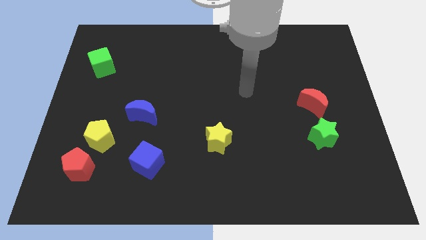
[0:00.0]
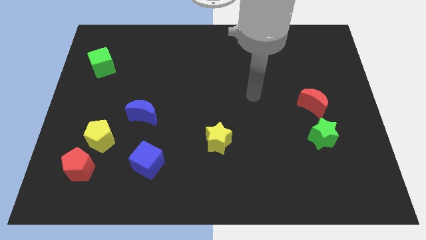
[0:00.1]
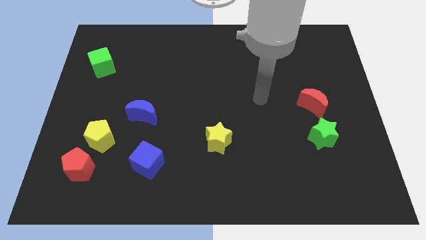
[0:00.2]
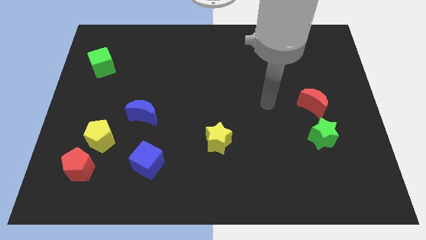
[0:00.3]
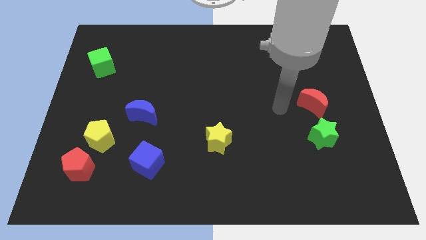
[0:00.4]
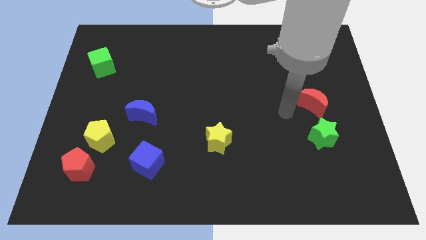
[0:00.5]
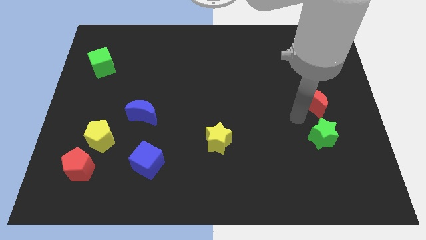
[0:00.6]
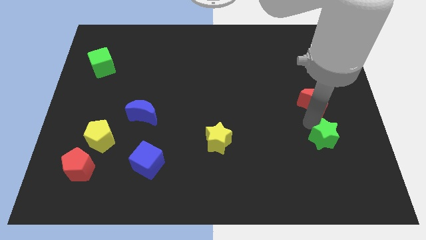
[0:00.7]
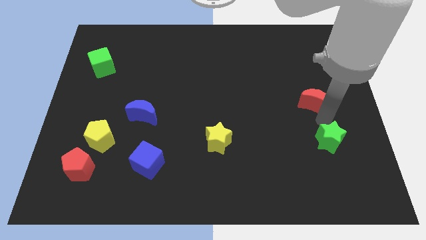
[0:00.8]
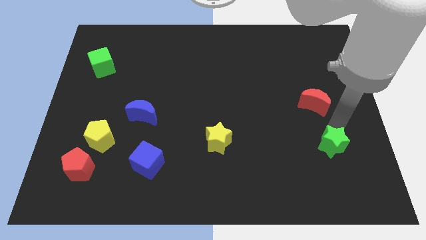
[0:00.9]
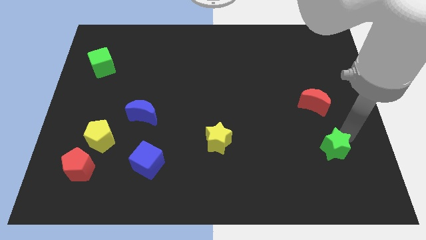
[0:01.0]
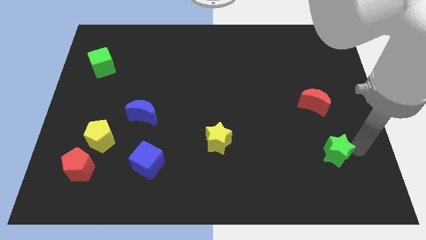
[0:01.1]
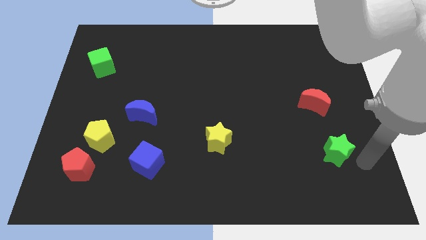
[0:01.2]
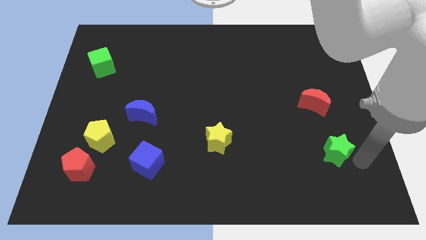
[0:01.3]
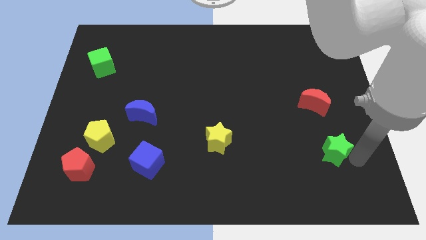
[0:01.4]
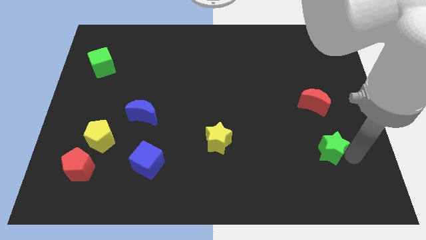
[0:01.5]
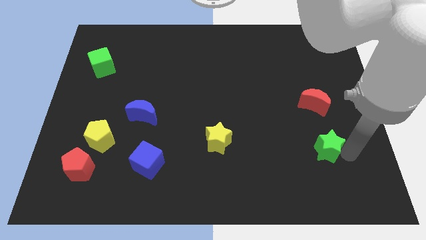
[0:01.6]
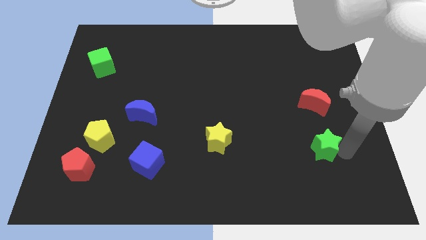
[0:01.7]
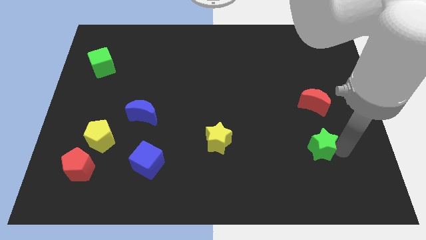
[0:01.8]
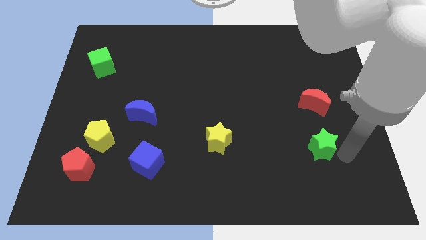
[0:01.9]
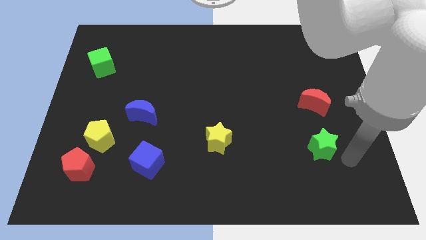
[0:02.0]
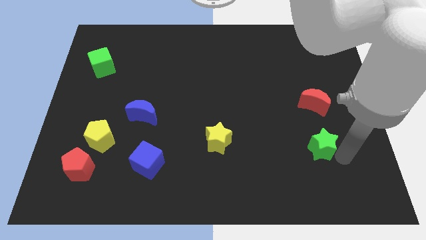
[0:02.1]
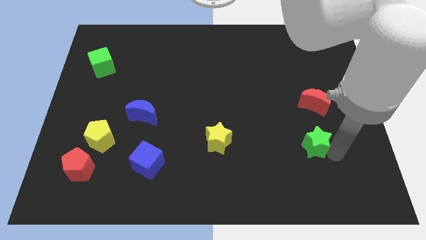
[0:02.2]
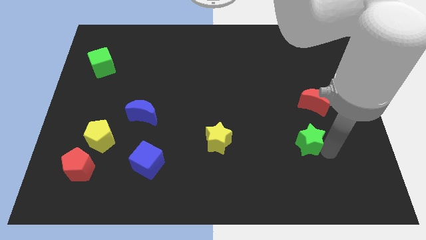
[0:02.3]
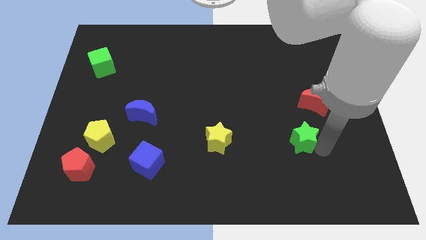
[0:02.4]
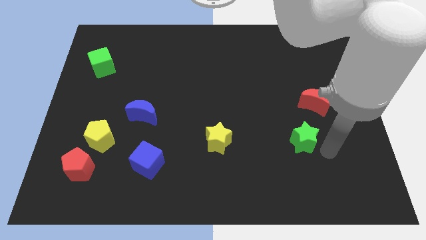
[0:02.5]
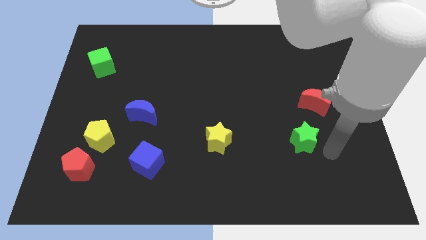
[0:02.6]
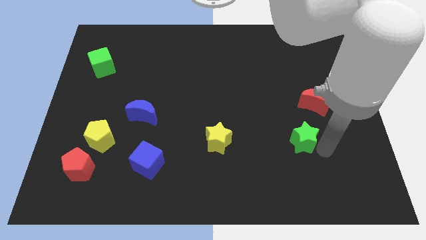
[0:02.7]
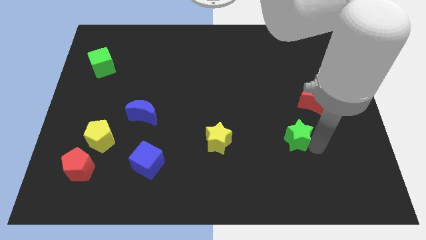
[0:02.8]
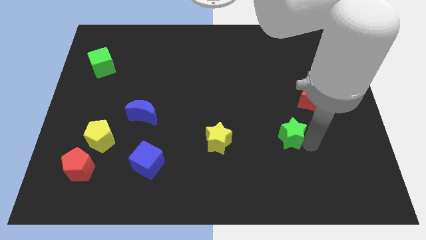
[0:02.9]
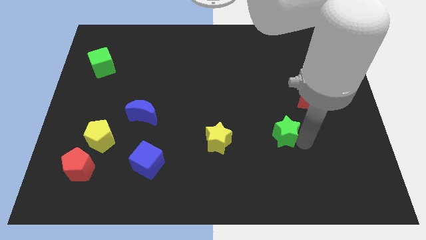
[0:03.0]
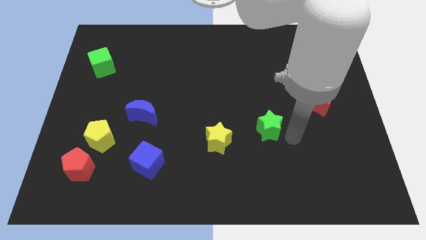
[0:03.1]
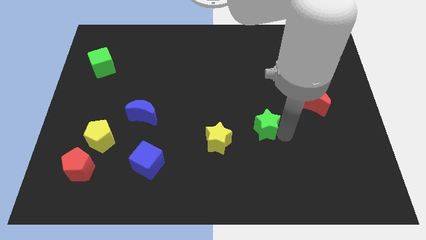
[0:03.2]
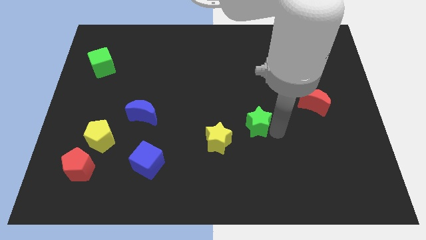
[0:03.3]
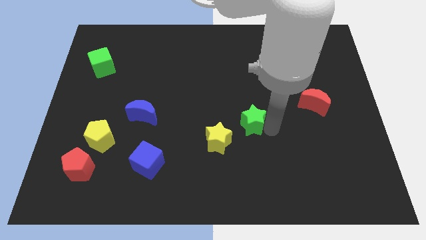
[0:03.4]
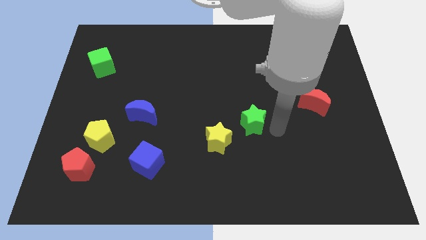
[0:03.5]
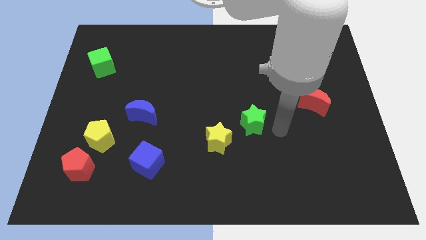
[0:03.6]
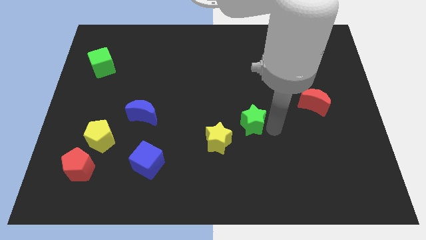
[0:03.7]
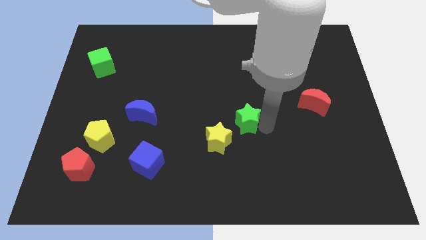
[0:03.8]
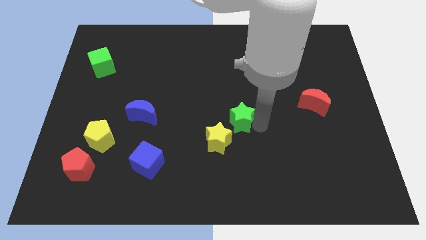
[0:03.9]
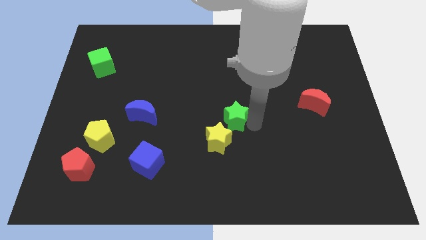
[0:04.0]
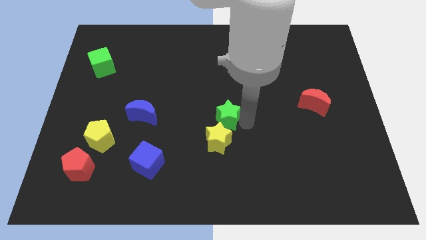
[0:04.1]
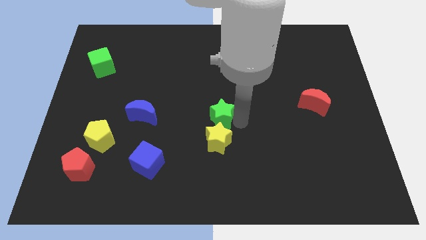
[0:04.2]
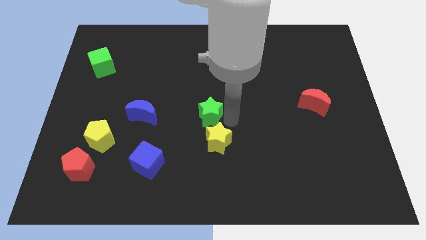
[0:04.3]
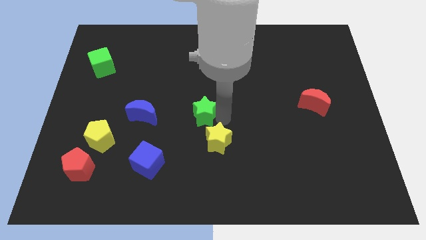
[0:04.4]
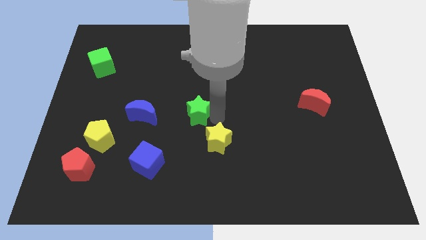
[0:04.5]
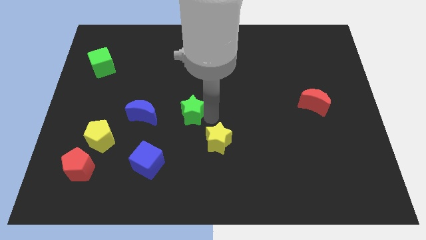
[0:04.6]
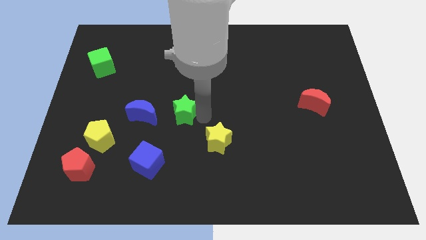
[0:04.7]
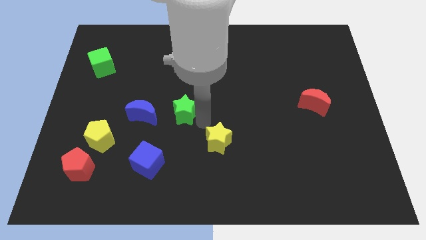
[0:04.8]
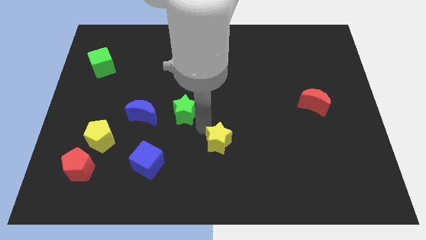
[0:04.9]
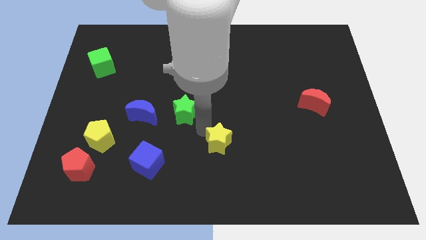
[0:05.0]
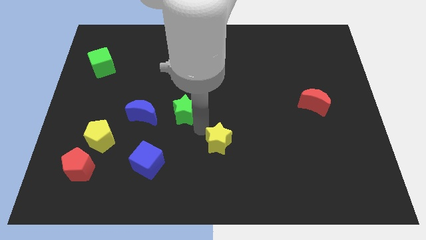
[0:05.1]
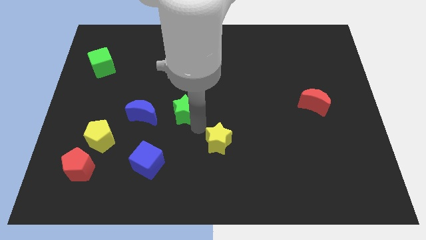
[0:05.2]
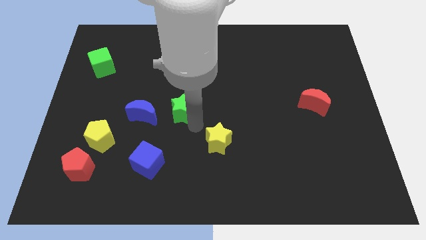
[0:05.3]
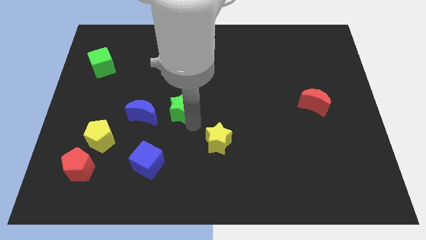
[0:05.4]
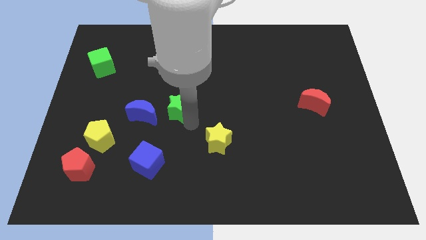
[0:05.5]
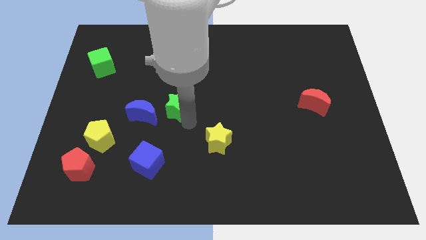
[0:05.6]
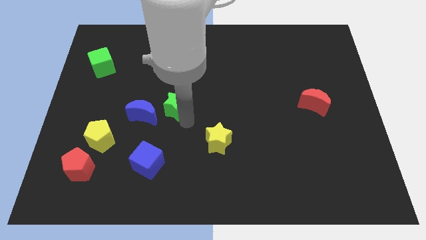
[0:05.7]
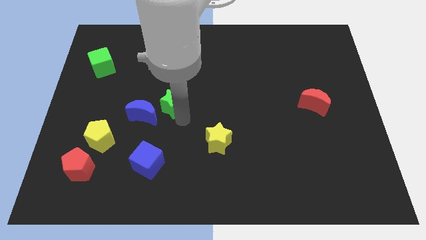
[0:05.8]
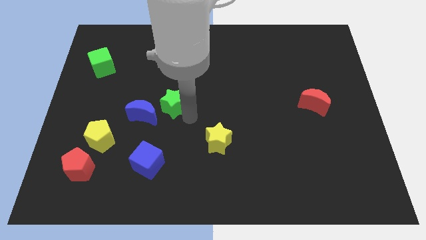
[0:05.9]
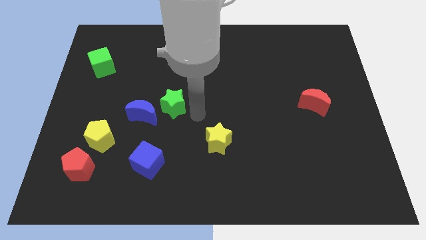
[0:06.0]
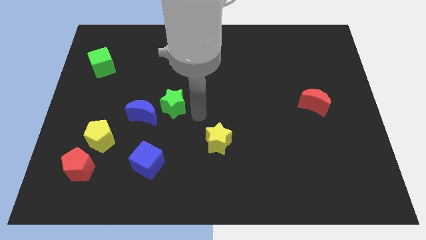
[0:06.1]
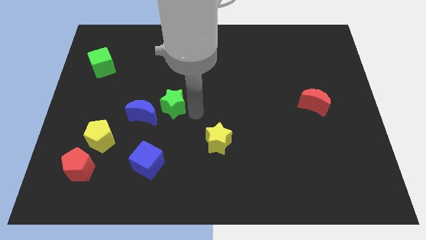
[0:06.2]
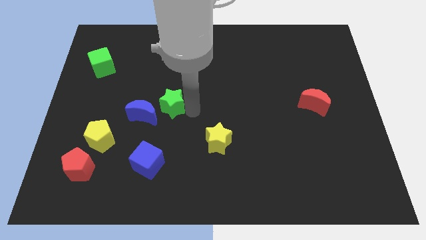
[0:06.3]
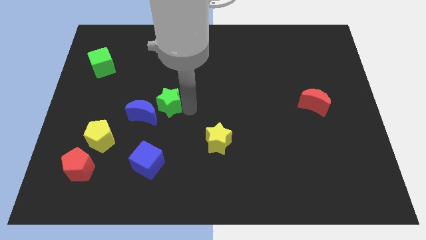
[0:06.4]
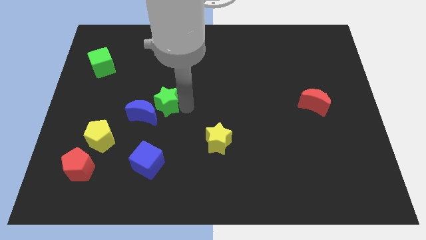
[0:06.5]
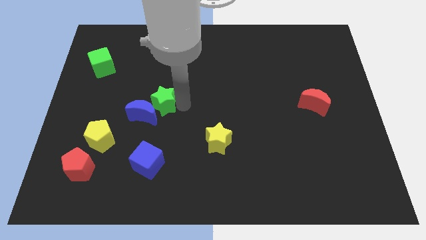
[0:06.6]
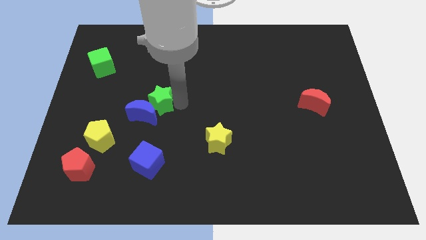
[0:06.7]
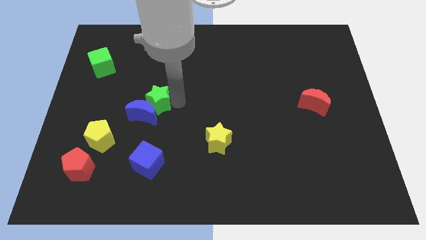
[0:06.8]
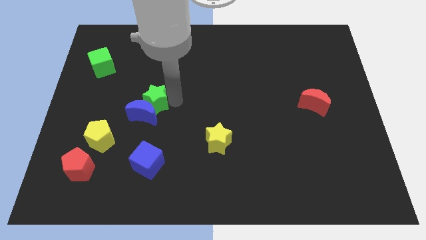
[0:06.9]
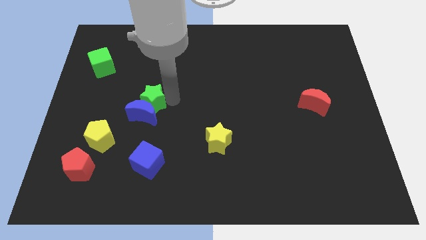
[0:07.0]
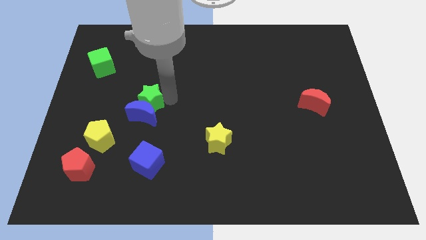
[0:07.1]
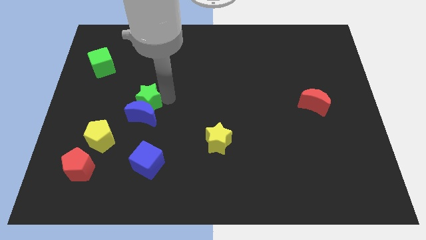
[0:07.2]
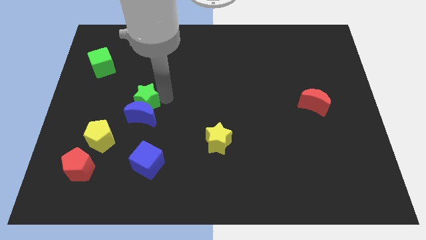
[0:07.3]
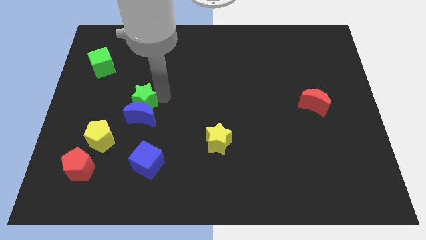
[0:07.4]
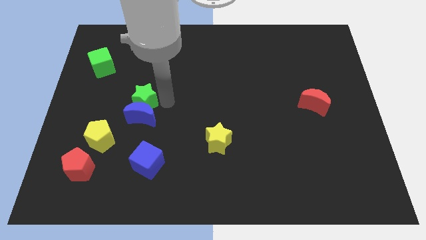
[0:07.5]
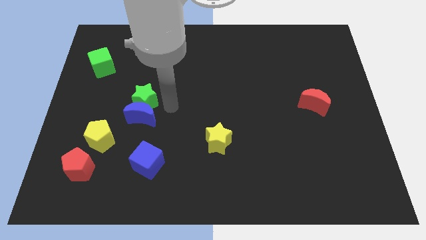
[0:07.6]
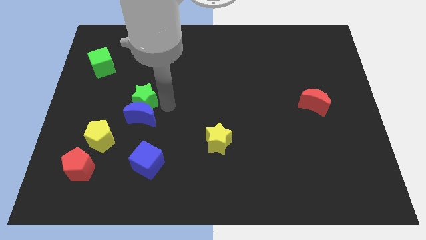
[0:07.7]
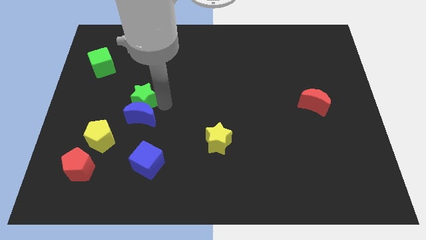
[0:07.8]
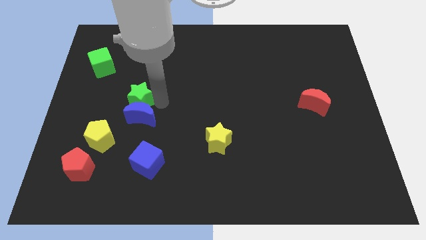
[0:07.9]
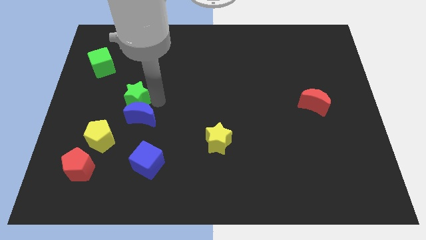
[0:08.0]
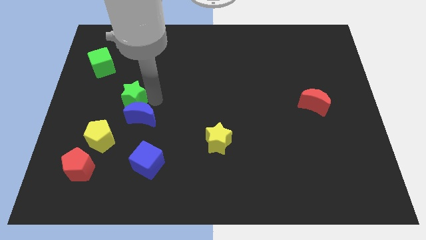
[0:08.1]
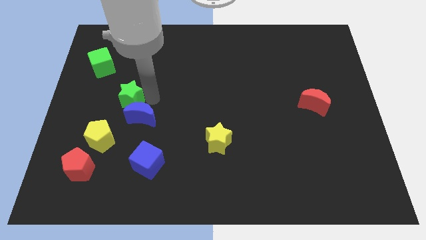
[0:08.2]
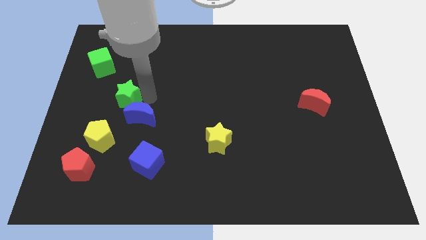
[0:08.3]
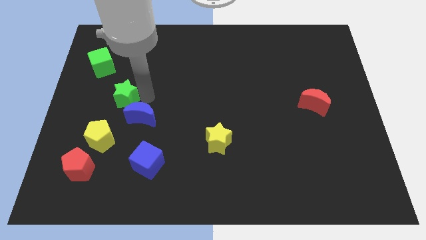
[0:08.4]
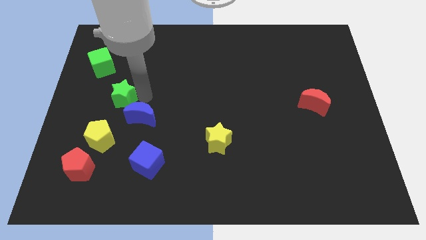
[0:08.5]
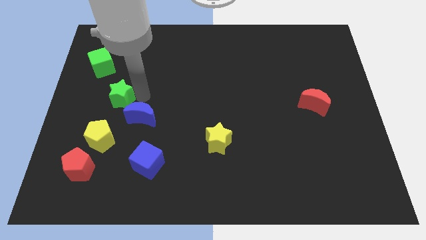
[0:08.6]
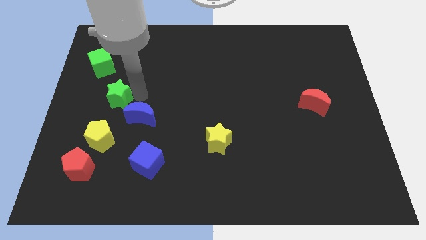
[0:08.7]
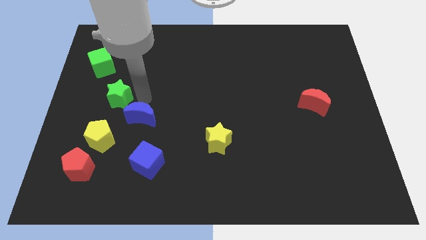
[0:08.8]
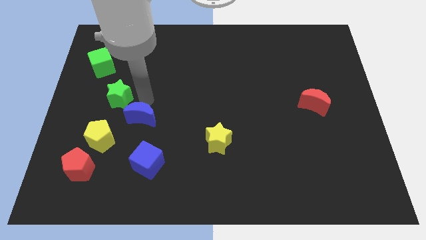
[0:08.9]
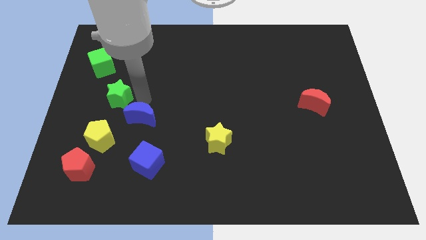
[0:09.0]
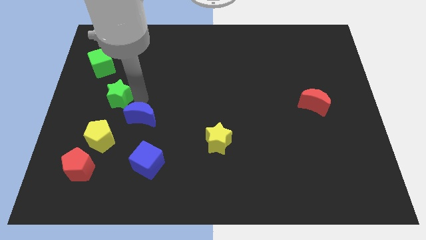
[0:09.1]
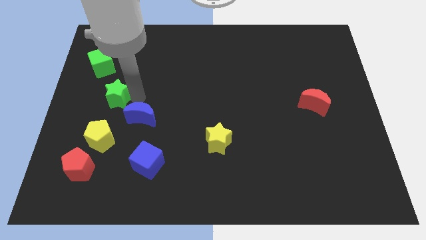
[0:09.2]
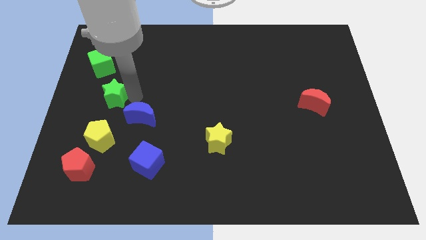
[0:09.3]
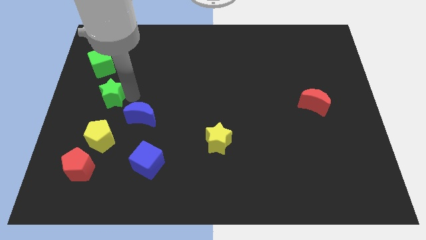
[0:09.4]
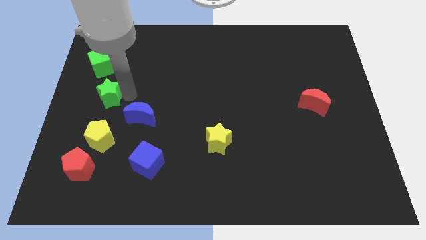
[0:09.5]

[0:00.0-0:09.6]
put the green star to the center left
